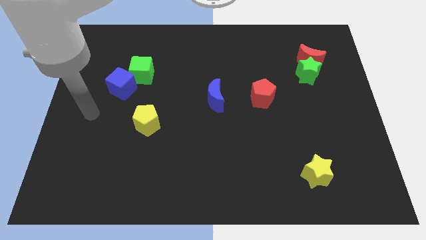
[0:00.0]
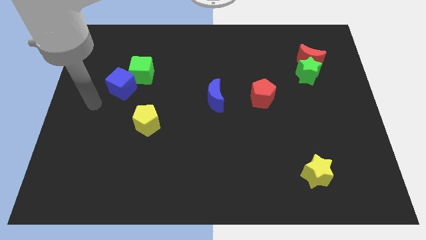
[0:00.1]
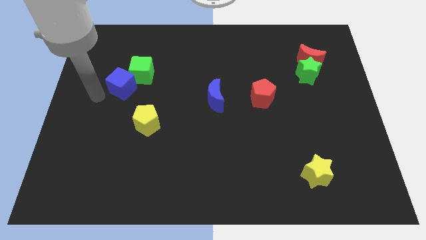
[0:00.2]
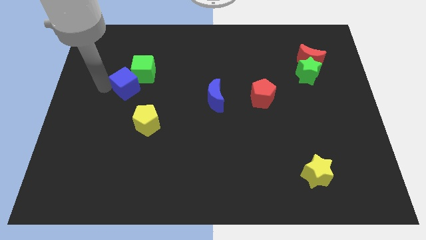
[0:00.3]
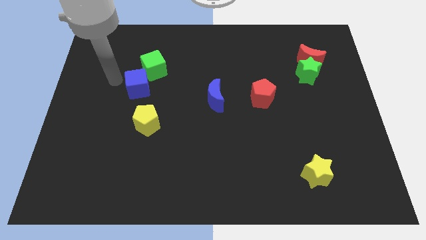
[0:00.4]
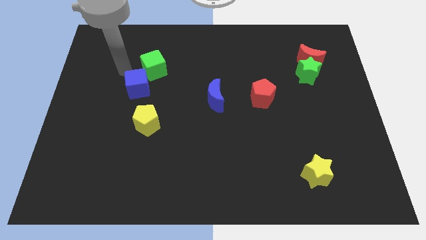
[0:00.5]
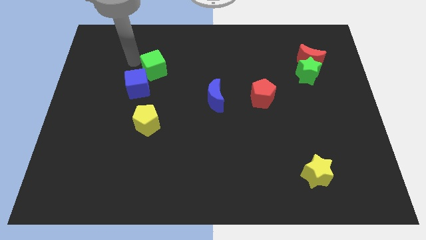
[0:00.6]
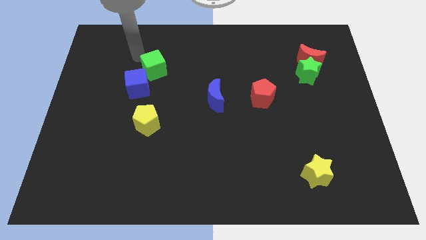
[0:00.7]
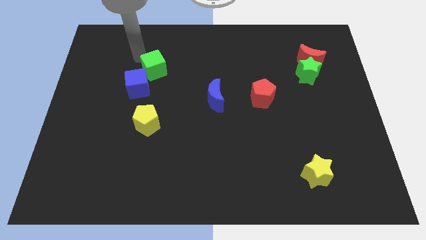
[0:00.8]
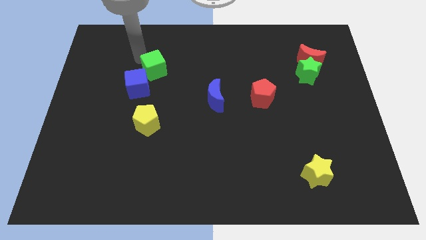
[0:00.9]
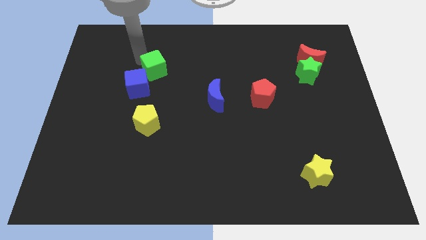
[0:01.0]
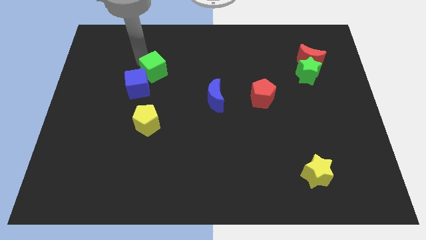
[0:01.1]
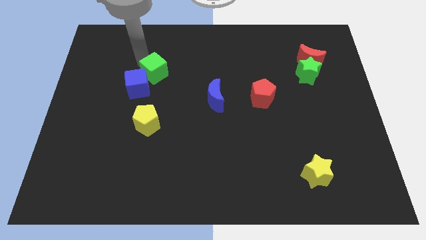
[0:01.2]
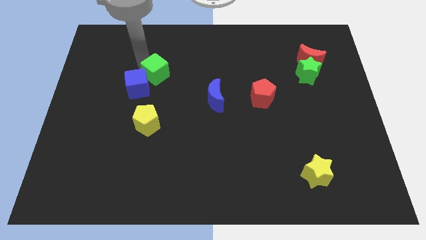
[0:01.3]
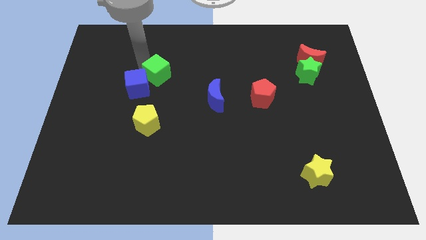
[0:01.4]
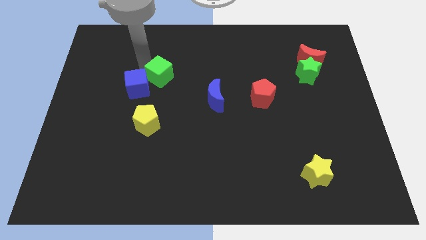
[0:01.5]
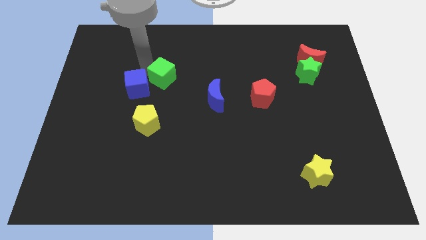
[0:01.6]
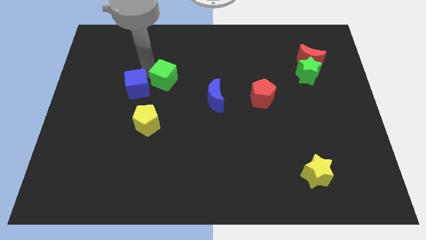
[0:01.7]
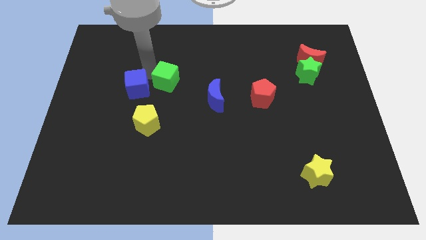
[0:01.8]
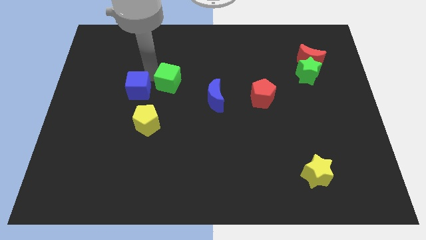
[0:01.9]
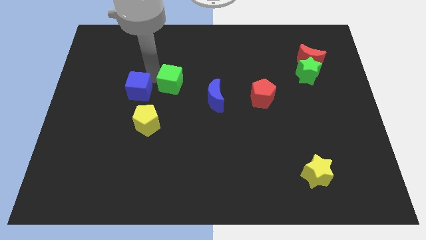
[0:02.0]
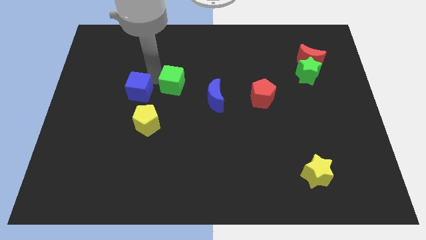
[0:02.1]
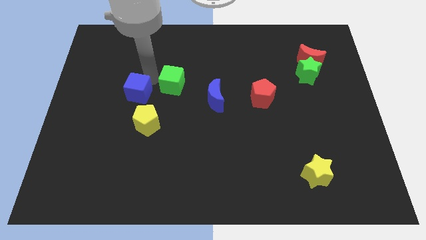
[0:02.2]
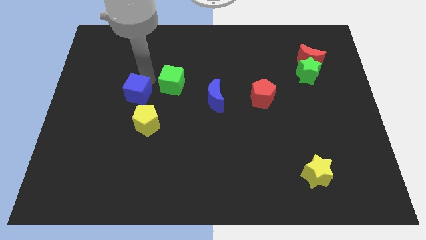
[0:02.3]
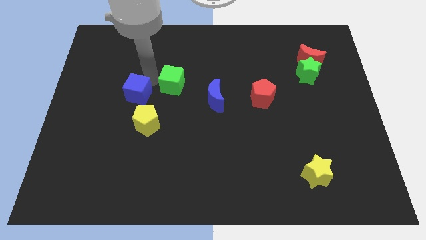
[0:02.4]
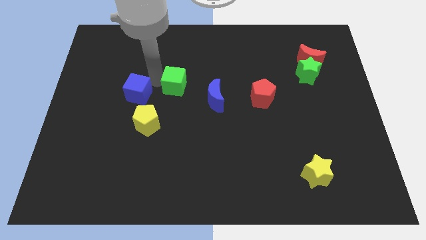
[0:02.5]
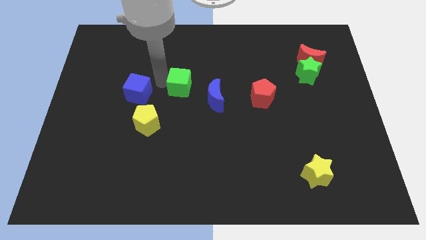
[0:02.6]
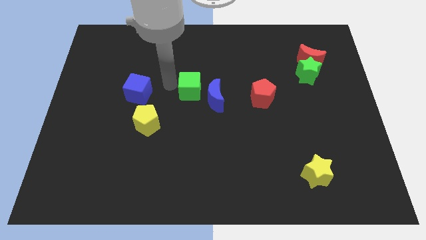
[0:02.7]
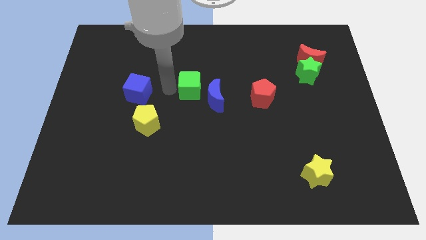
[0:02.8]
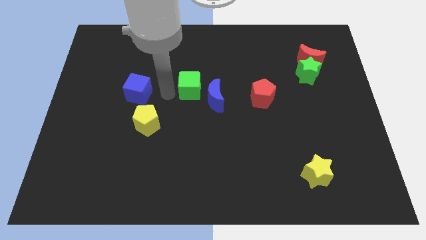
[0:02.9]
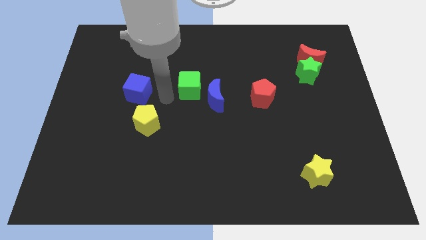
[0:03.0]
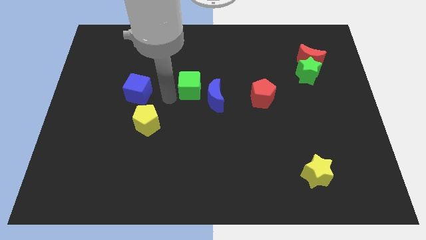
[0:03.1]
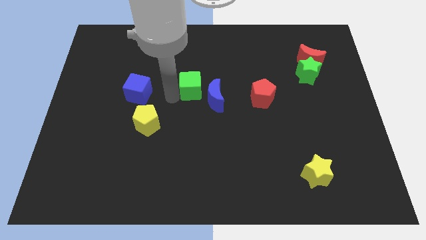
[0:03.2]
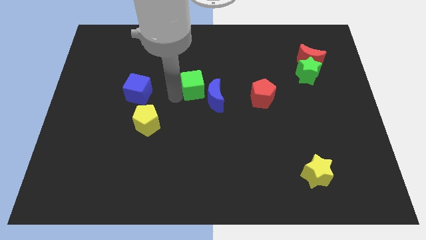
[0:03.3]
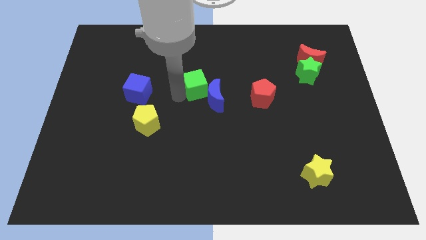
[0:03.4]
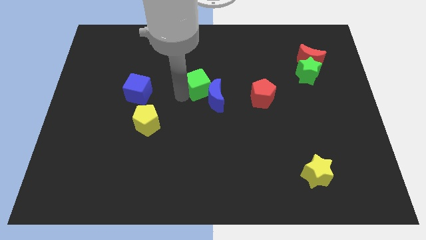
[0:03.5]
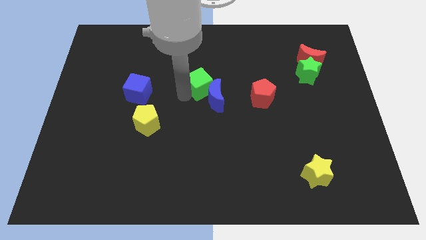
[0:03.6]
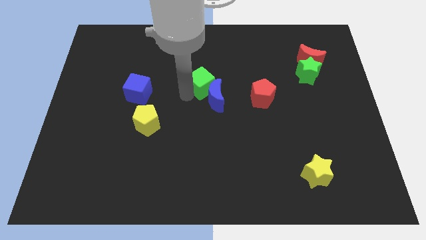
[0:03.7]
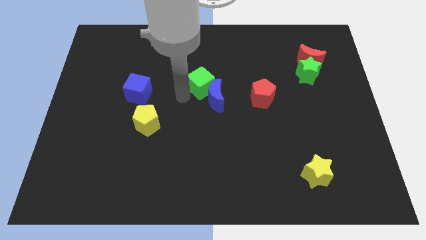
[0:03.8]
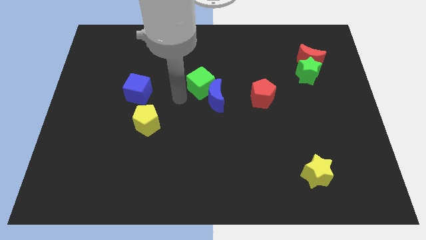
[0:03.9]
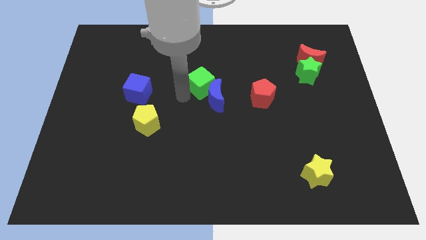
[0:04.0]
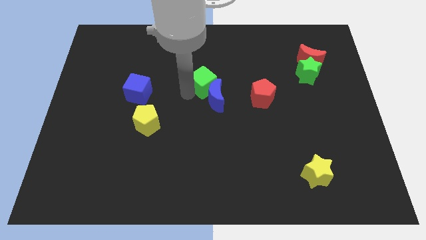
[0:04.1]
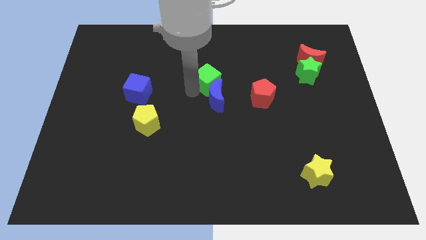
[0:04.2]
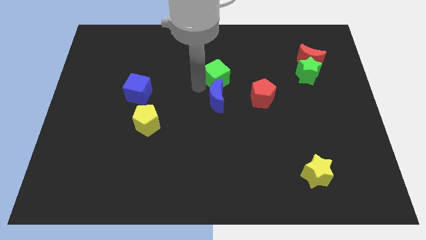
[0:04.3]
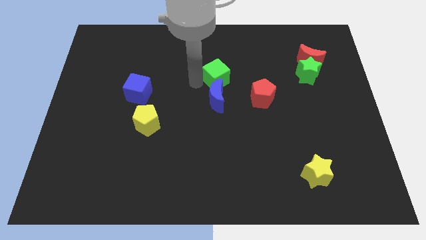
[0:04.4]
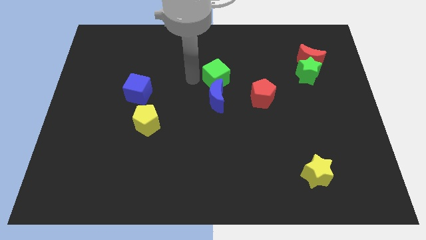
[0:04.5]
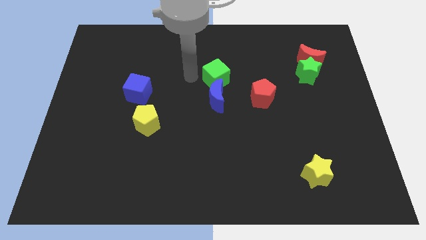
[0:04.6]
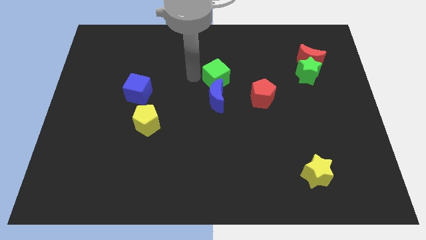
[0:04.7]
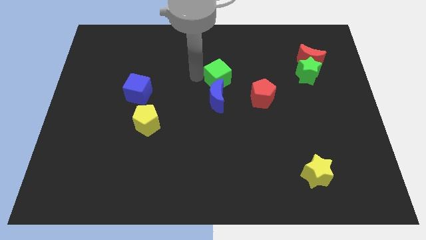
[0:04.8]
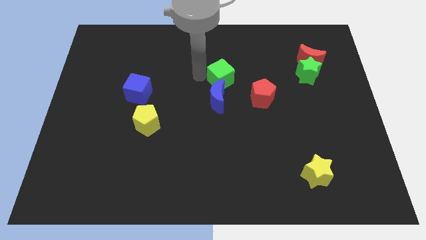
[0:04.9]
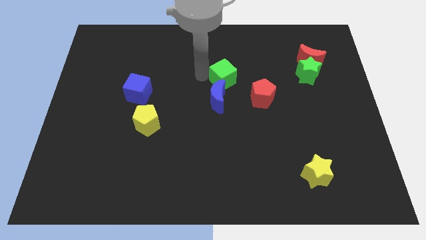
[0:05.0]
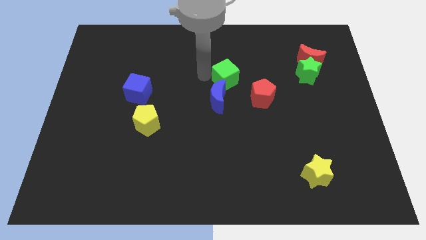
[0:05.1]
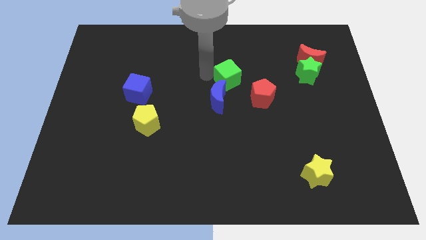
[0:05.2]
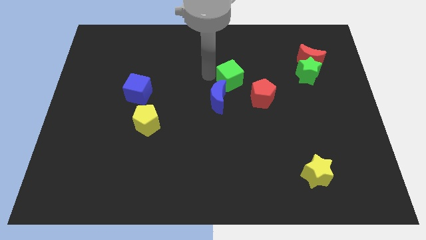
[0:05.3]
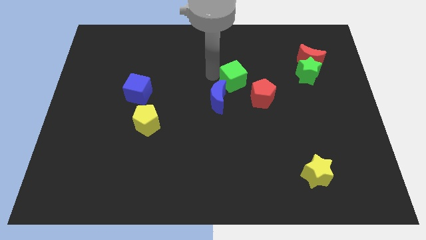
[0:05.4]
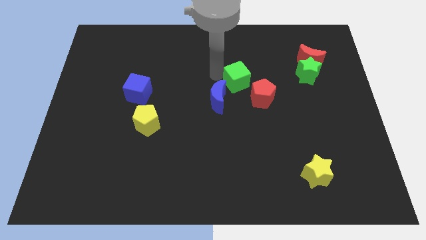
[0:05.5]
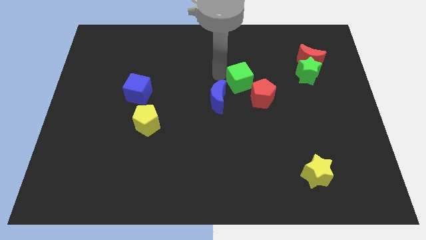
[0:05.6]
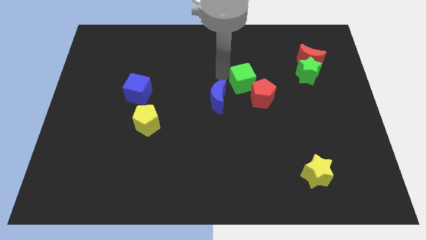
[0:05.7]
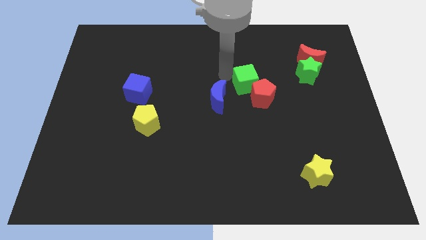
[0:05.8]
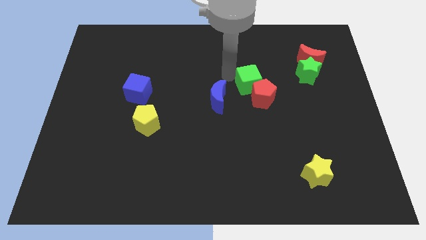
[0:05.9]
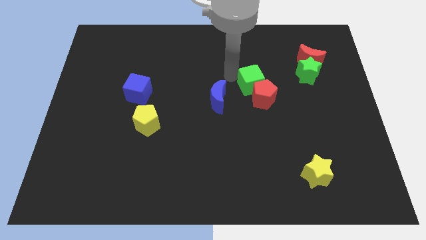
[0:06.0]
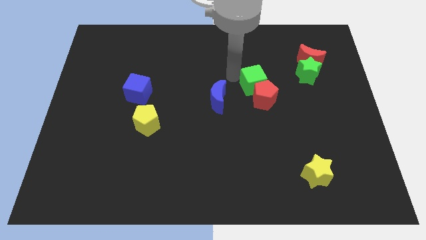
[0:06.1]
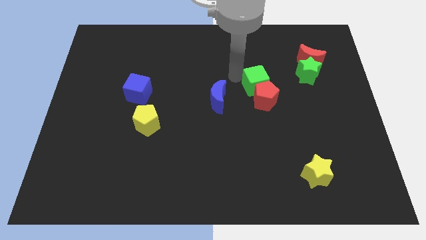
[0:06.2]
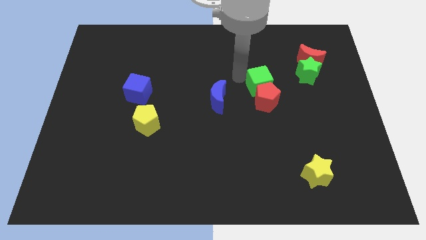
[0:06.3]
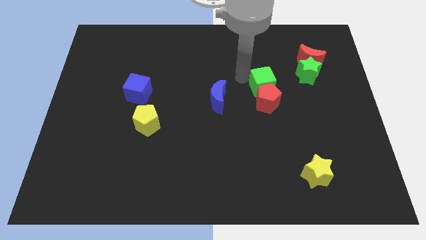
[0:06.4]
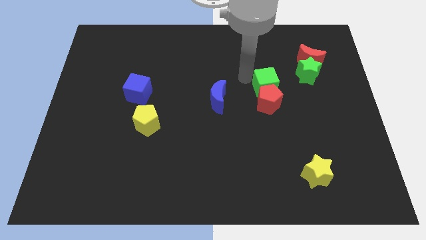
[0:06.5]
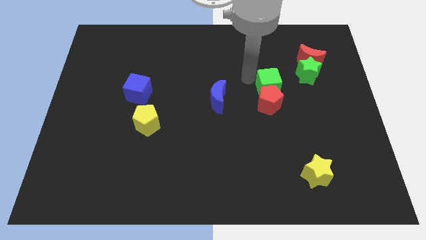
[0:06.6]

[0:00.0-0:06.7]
push the green cube diagonally down and to the left of the green star

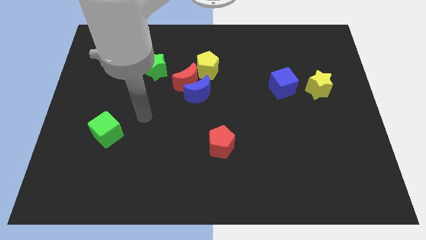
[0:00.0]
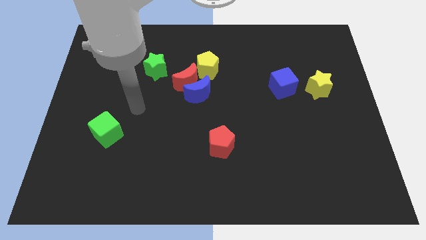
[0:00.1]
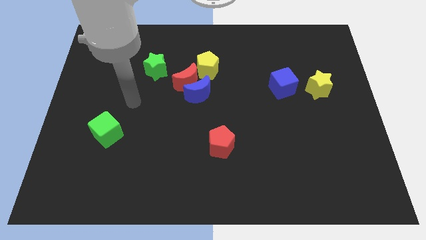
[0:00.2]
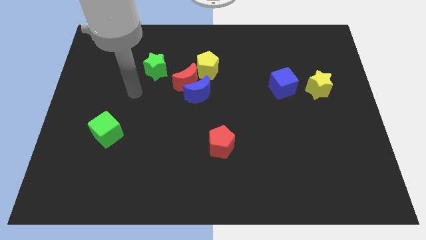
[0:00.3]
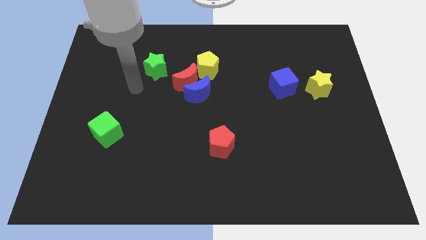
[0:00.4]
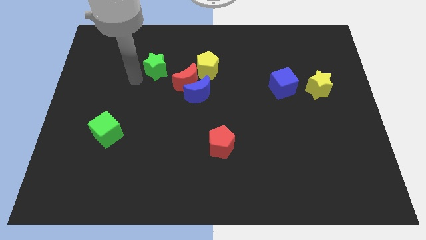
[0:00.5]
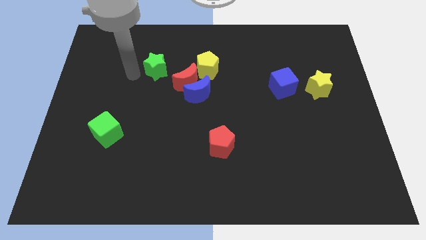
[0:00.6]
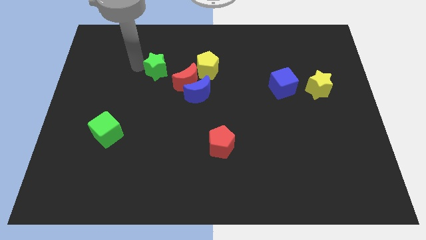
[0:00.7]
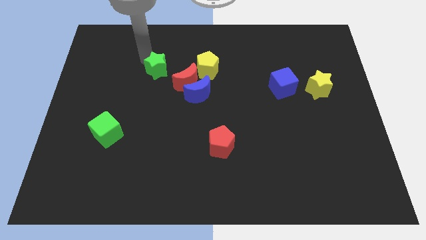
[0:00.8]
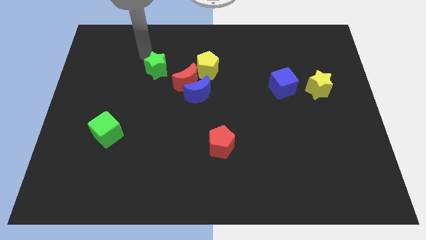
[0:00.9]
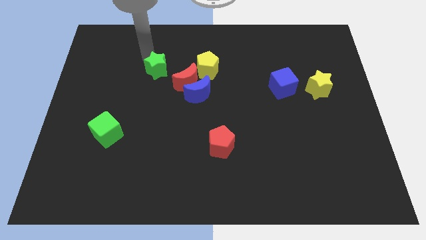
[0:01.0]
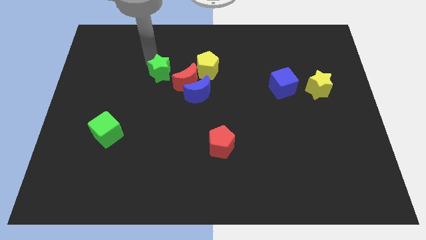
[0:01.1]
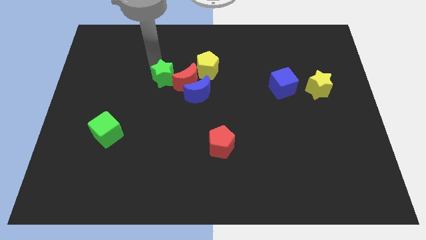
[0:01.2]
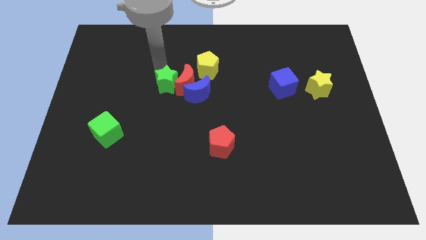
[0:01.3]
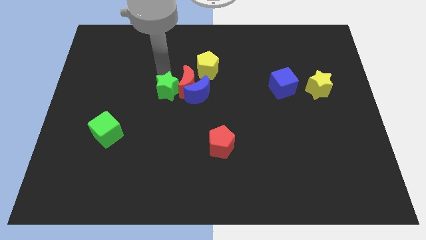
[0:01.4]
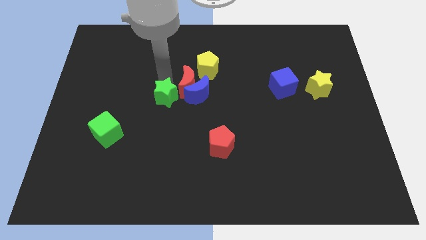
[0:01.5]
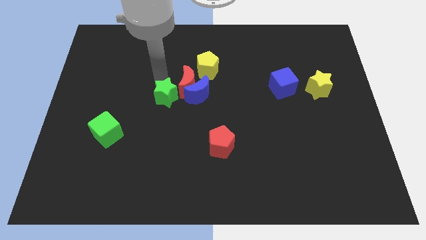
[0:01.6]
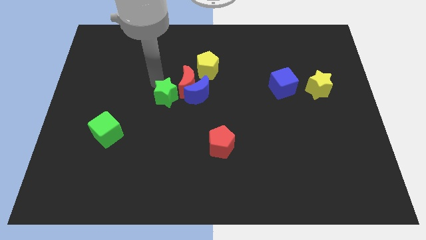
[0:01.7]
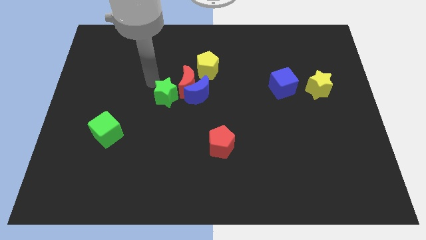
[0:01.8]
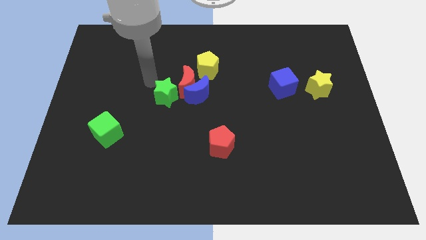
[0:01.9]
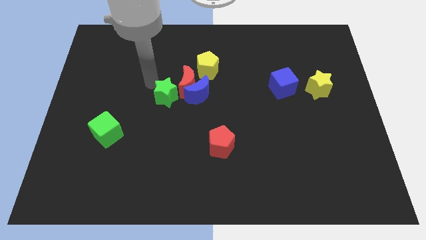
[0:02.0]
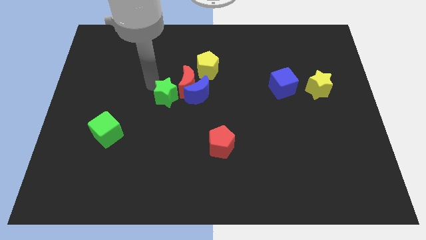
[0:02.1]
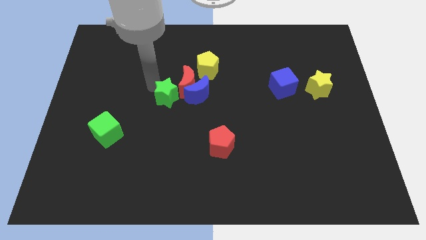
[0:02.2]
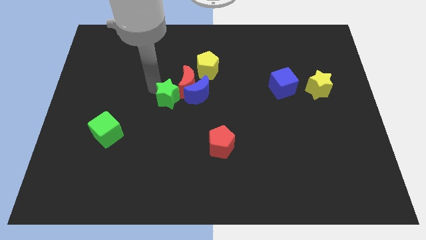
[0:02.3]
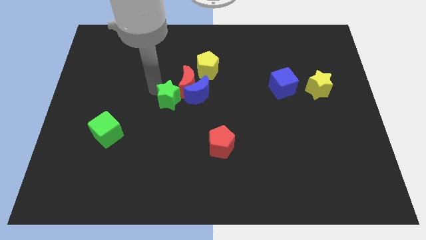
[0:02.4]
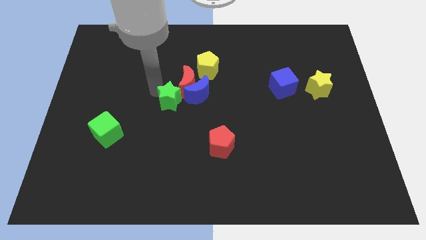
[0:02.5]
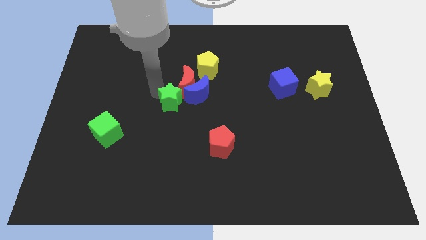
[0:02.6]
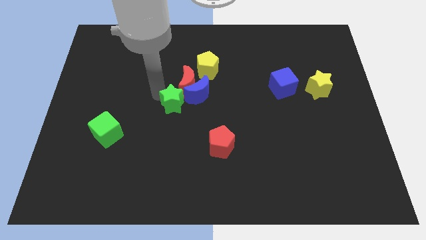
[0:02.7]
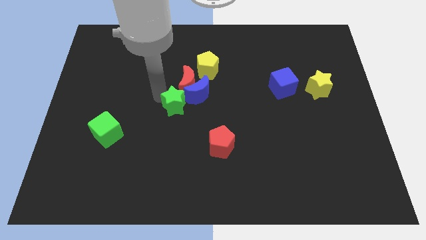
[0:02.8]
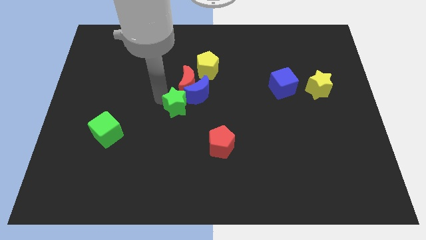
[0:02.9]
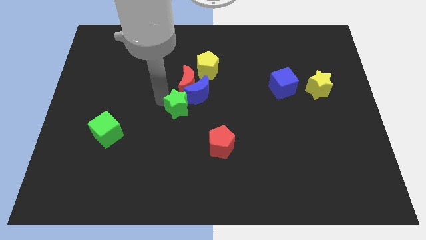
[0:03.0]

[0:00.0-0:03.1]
push the green star to the bottom of the blue moon
